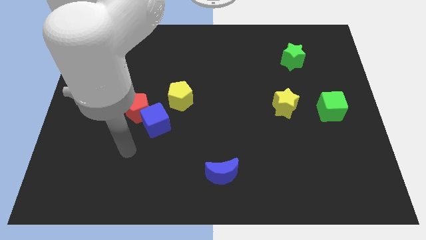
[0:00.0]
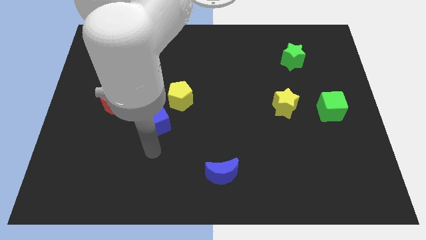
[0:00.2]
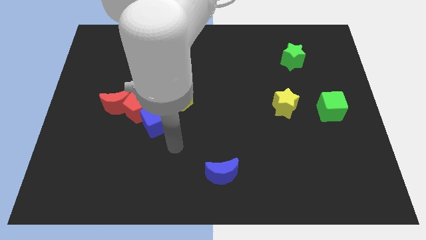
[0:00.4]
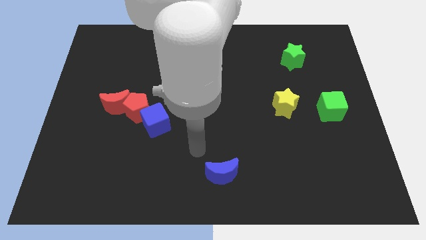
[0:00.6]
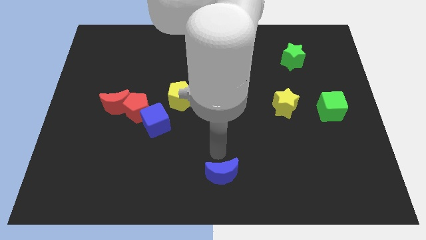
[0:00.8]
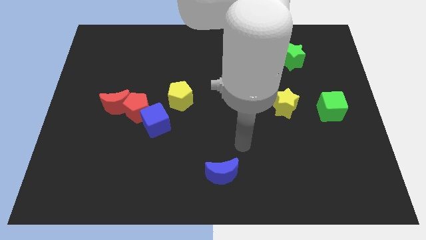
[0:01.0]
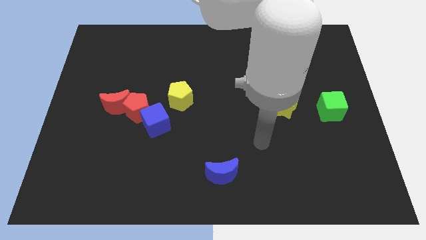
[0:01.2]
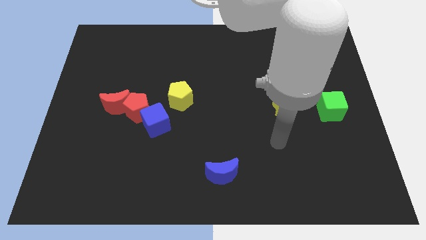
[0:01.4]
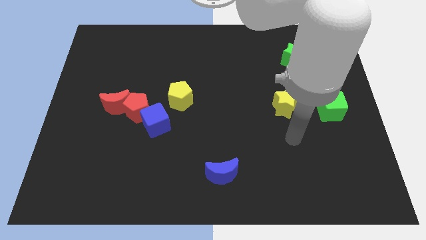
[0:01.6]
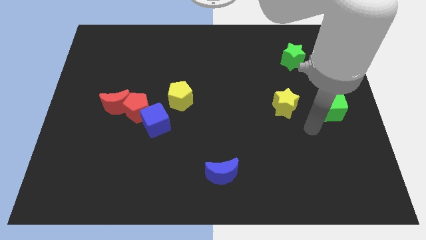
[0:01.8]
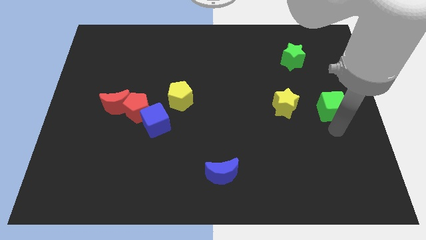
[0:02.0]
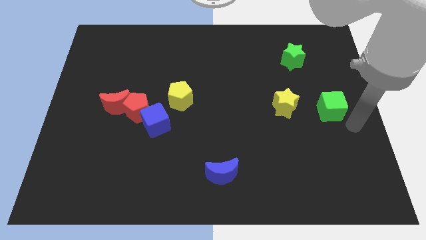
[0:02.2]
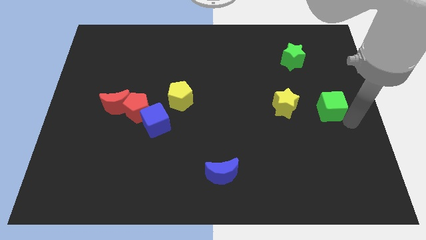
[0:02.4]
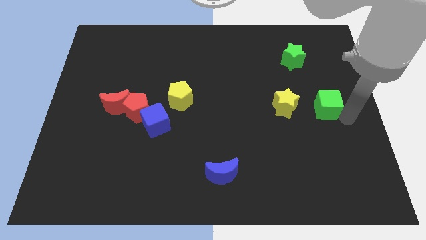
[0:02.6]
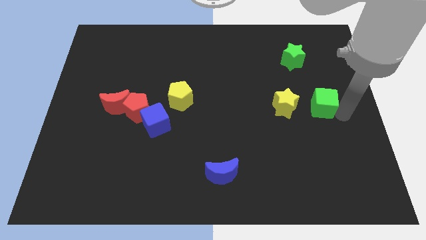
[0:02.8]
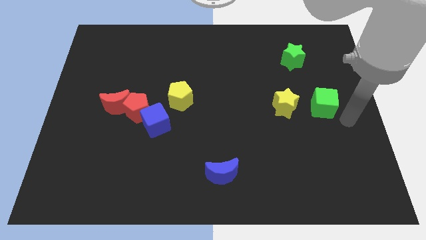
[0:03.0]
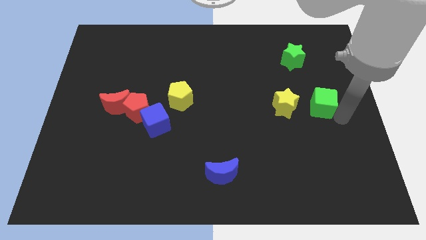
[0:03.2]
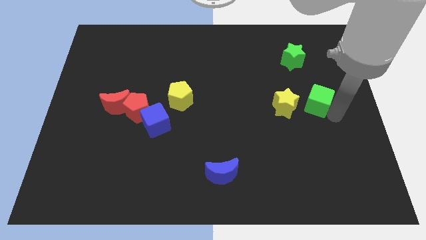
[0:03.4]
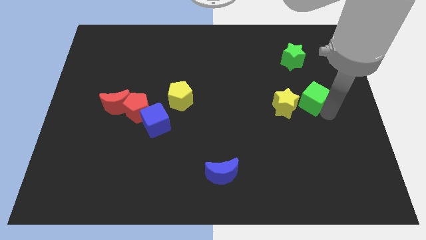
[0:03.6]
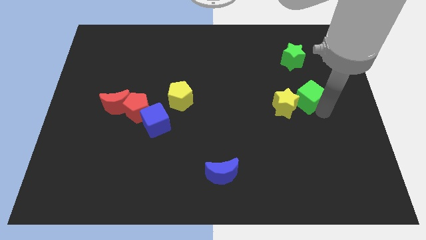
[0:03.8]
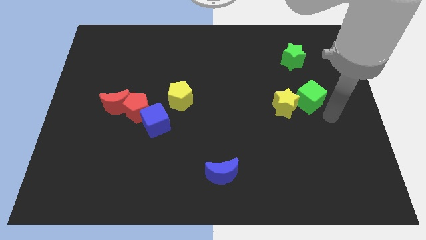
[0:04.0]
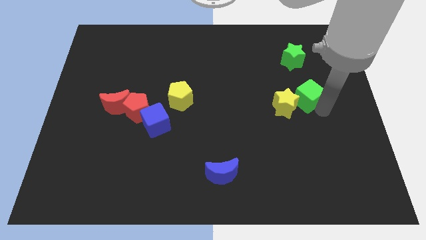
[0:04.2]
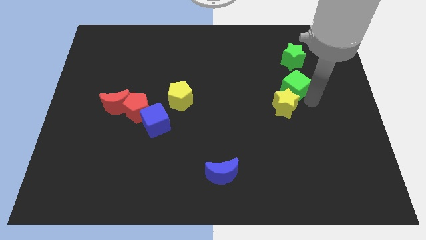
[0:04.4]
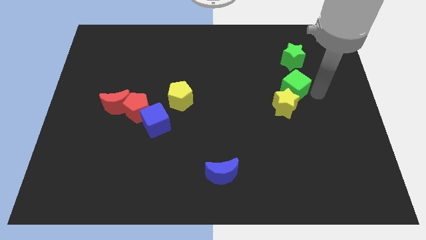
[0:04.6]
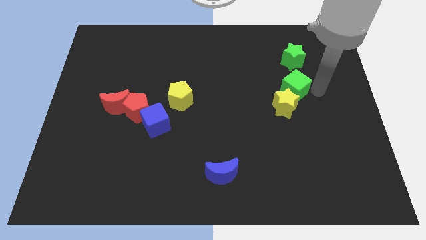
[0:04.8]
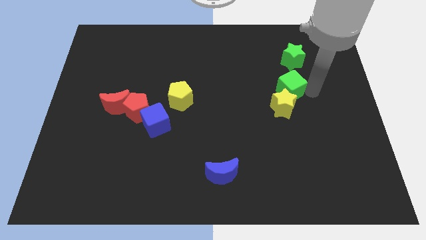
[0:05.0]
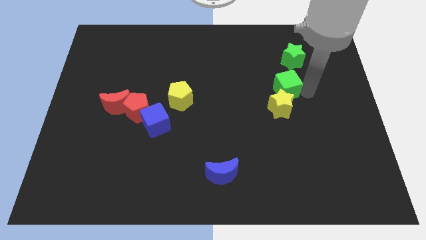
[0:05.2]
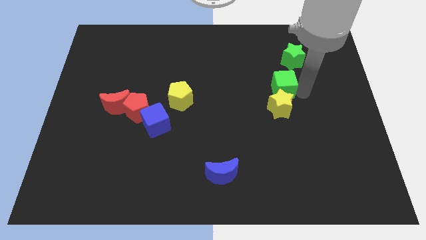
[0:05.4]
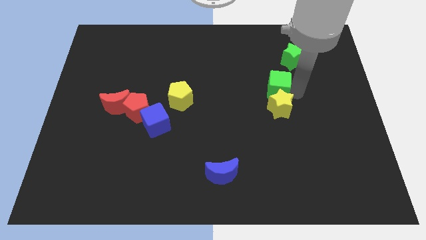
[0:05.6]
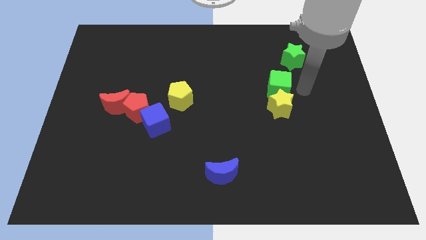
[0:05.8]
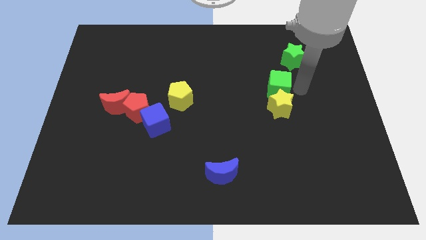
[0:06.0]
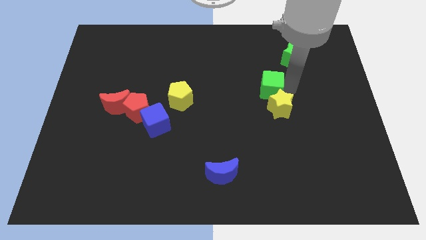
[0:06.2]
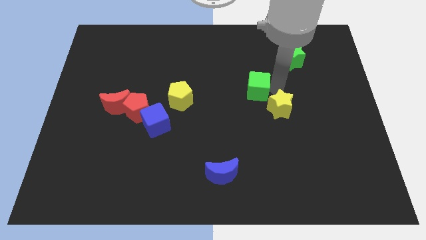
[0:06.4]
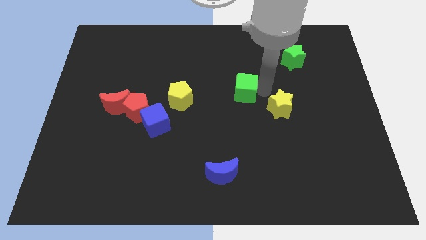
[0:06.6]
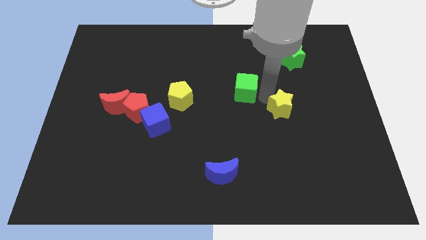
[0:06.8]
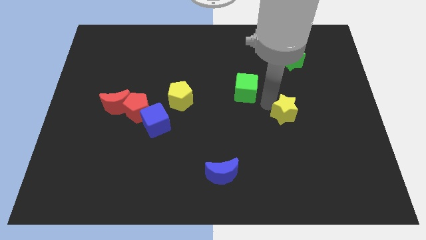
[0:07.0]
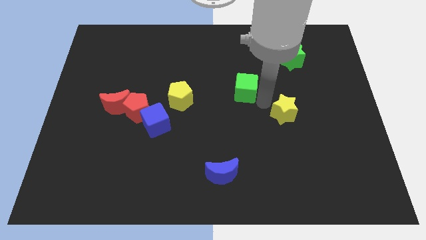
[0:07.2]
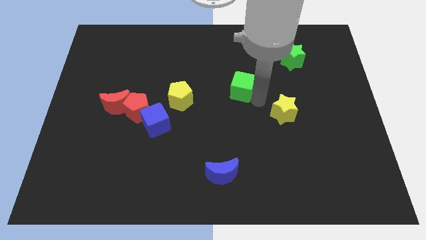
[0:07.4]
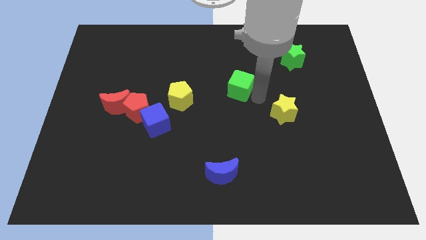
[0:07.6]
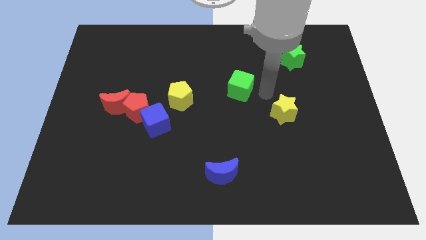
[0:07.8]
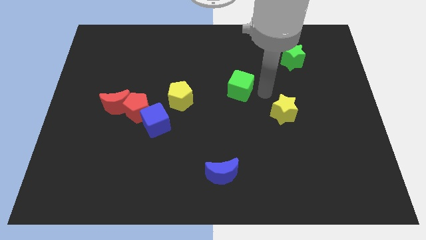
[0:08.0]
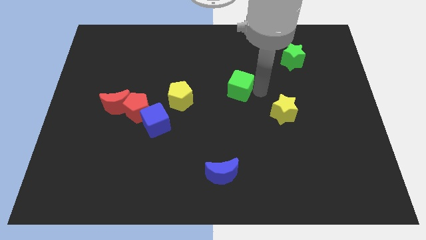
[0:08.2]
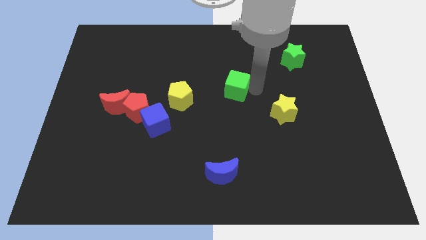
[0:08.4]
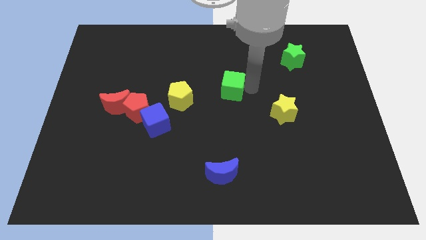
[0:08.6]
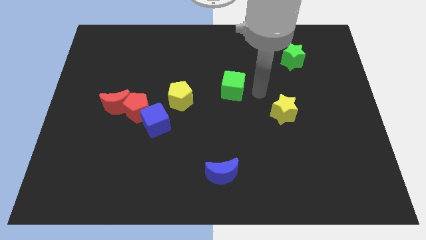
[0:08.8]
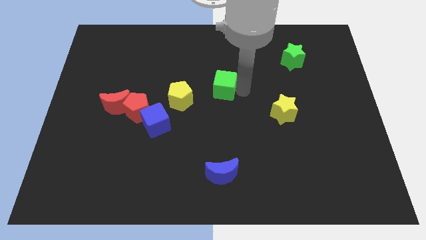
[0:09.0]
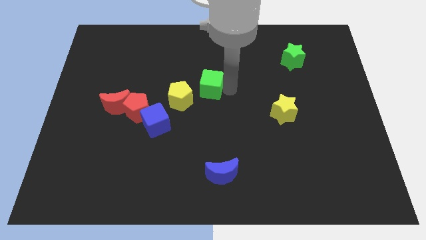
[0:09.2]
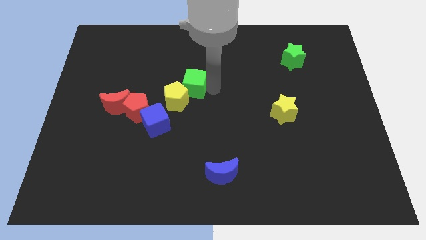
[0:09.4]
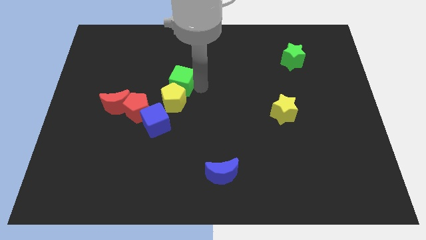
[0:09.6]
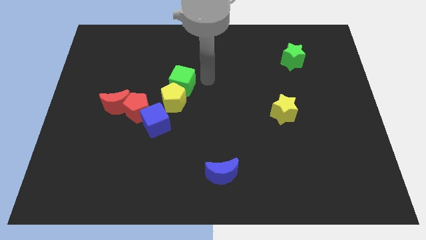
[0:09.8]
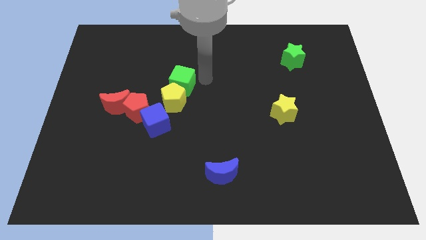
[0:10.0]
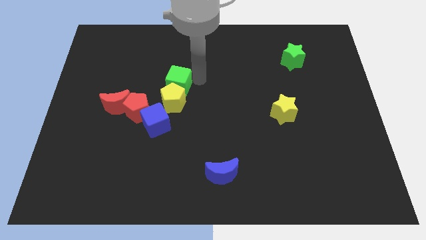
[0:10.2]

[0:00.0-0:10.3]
put the green cube to the top side of the blue cube

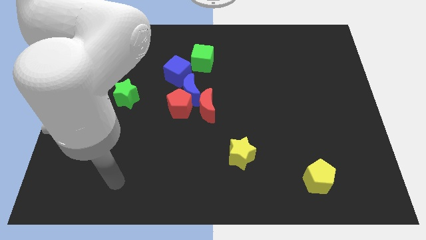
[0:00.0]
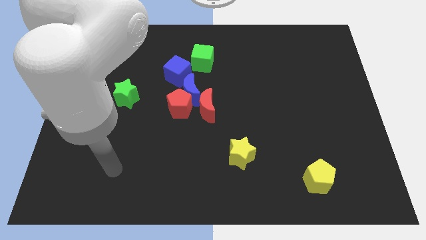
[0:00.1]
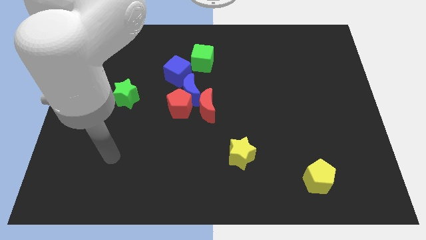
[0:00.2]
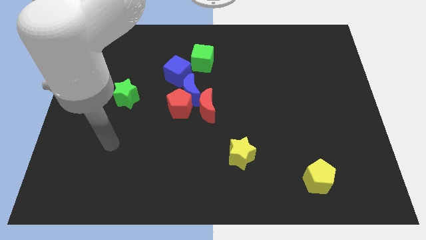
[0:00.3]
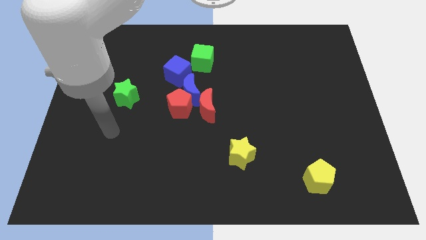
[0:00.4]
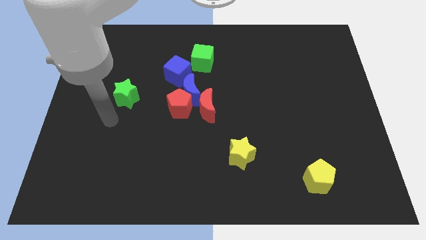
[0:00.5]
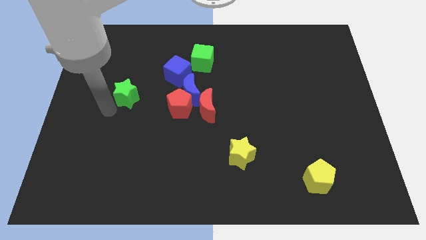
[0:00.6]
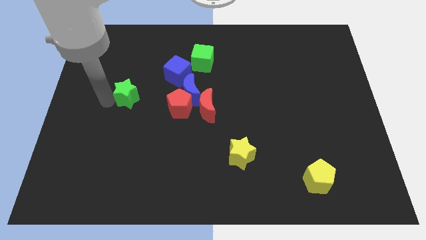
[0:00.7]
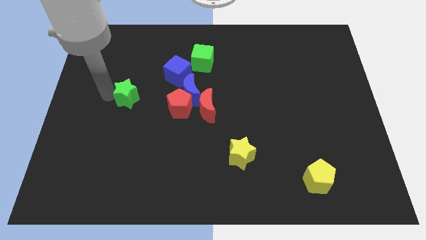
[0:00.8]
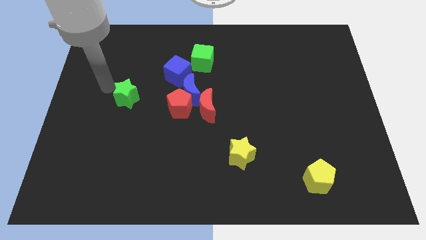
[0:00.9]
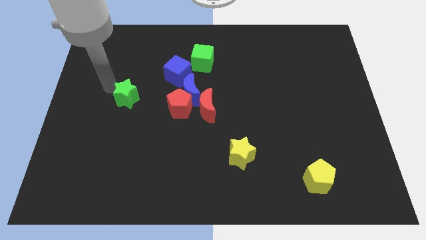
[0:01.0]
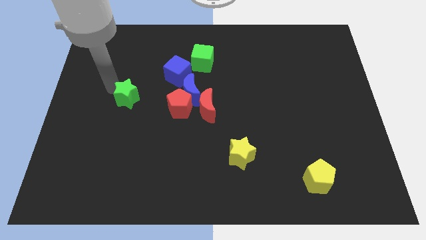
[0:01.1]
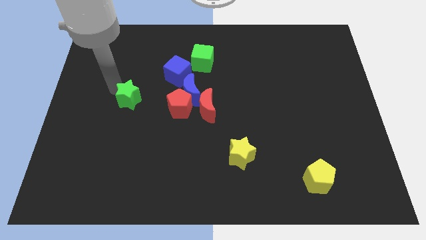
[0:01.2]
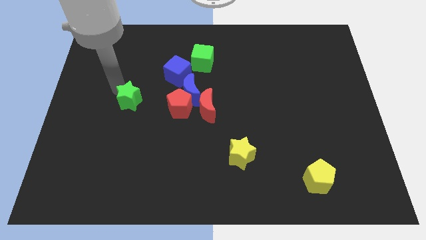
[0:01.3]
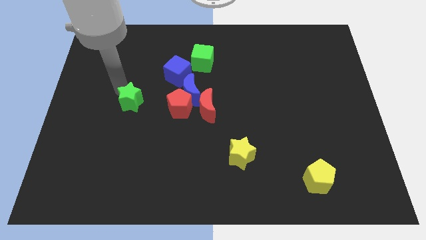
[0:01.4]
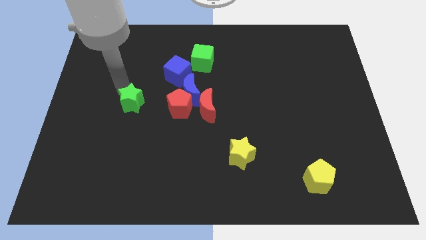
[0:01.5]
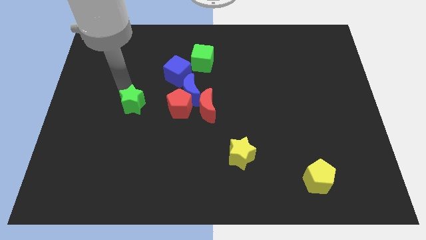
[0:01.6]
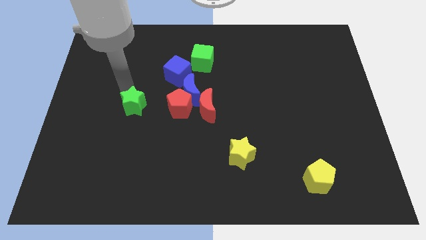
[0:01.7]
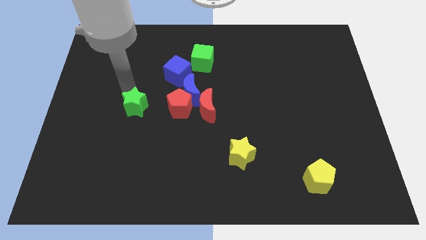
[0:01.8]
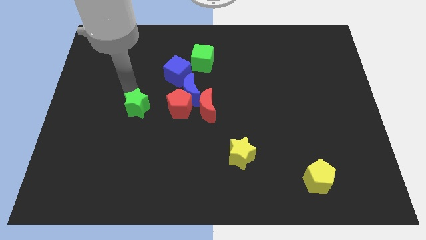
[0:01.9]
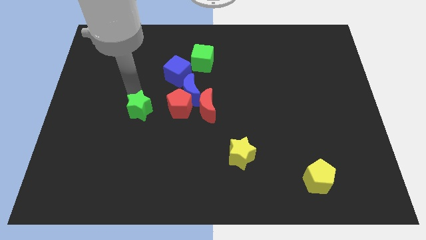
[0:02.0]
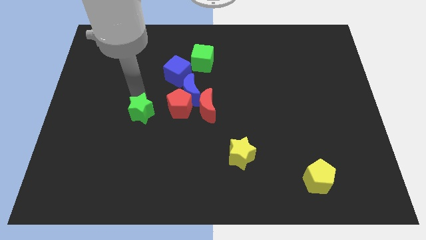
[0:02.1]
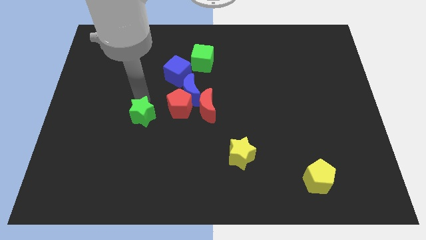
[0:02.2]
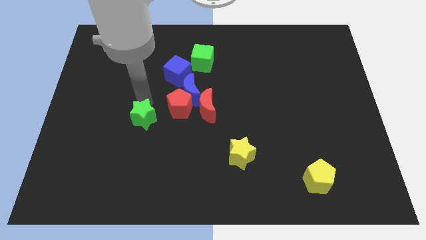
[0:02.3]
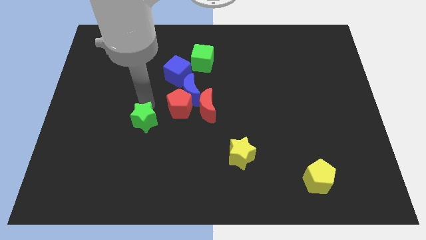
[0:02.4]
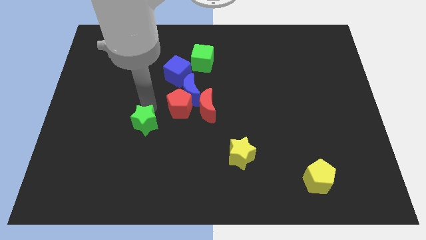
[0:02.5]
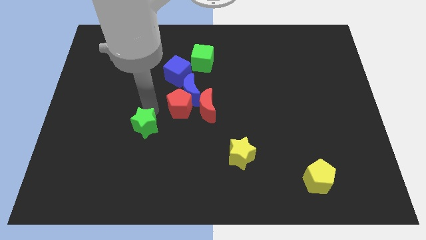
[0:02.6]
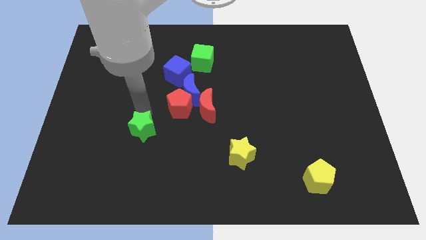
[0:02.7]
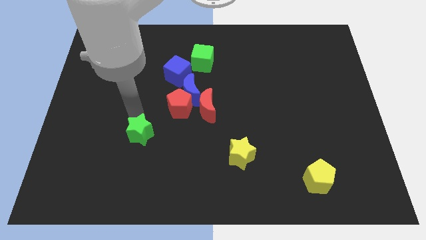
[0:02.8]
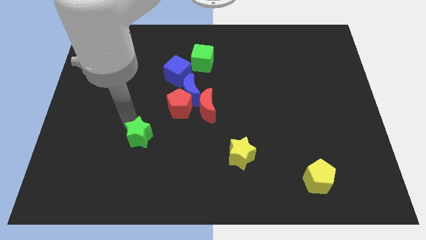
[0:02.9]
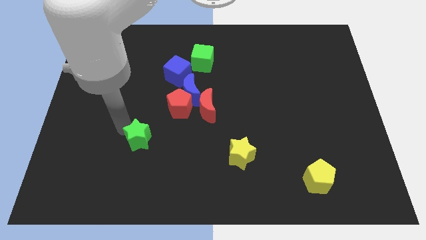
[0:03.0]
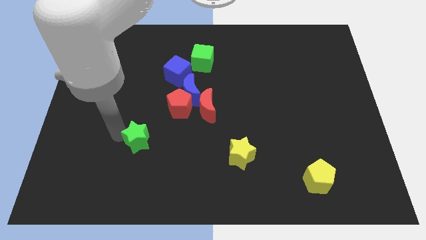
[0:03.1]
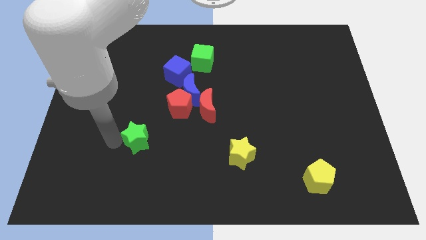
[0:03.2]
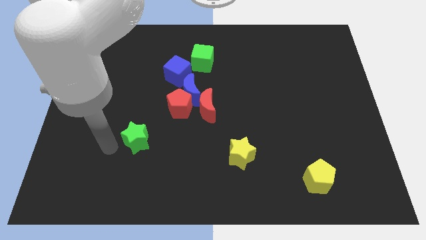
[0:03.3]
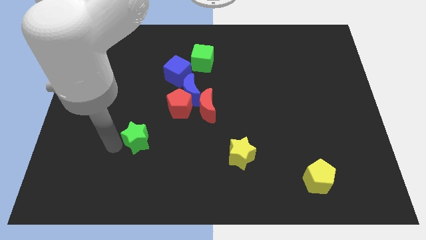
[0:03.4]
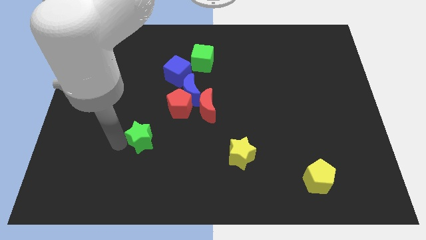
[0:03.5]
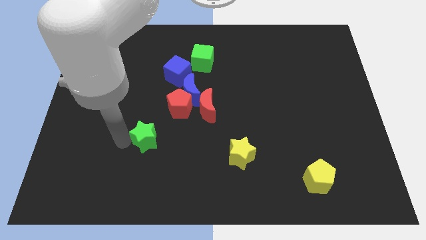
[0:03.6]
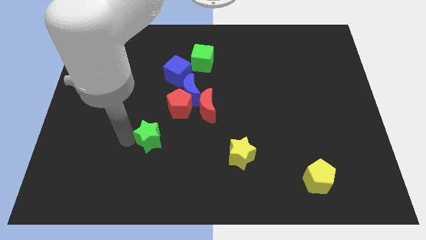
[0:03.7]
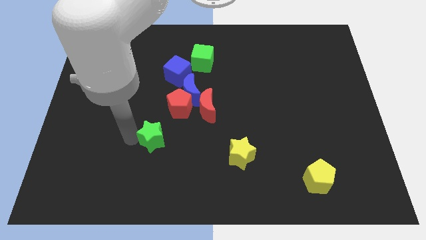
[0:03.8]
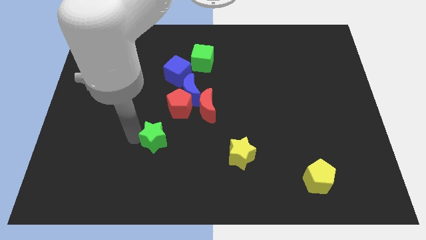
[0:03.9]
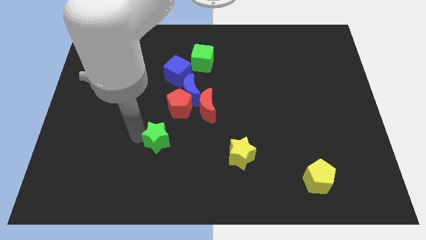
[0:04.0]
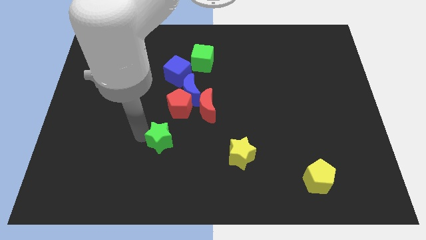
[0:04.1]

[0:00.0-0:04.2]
put the green star to the bottom left of the red moon
